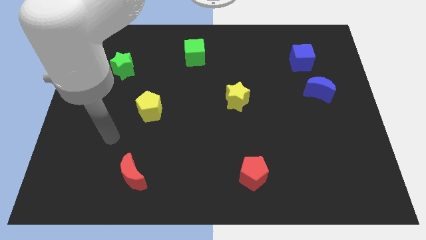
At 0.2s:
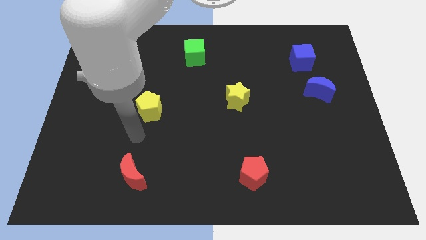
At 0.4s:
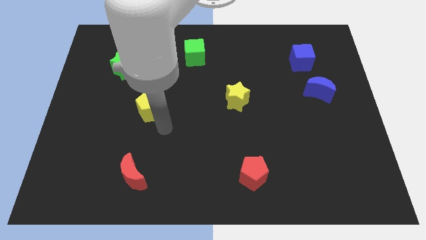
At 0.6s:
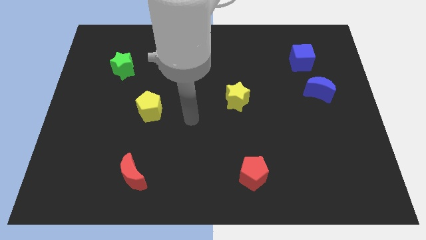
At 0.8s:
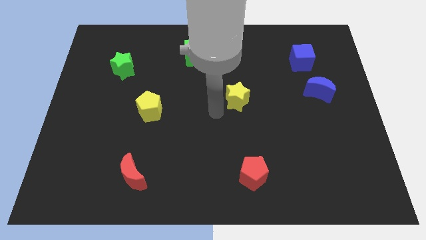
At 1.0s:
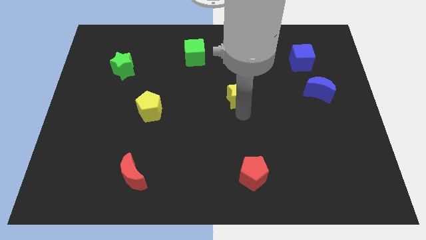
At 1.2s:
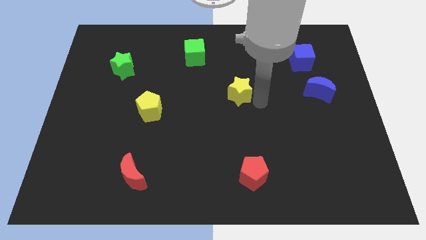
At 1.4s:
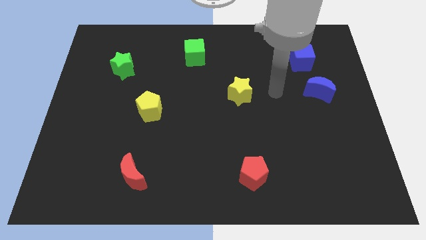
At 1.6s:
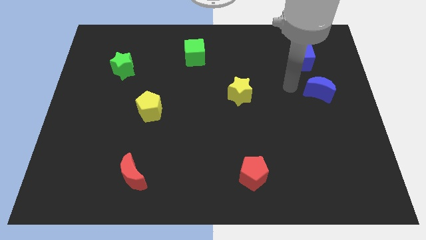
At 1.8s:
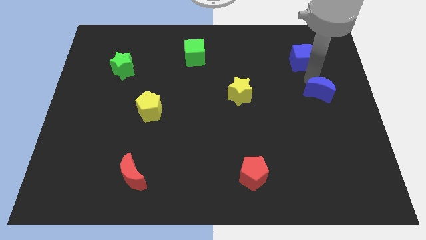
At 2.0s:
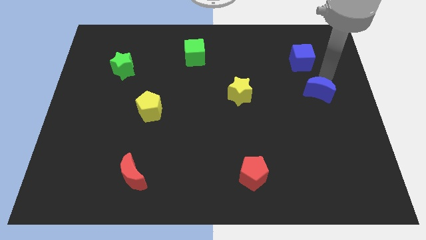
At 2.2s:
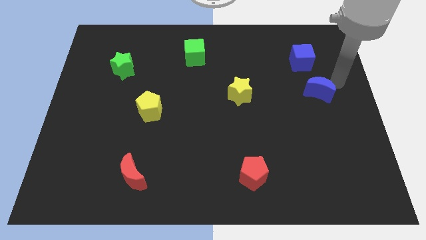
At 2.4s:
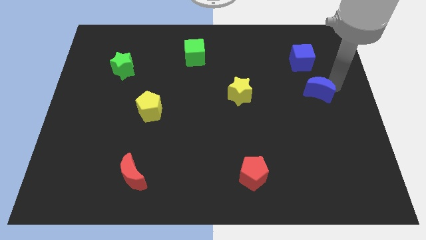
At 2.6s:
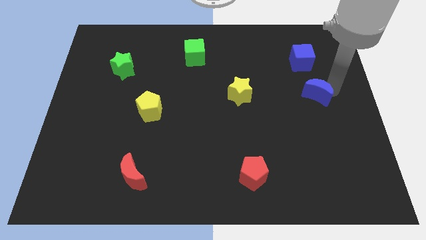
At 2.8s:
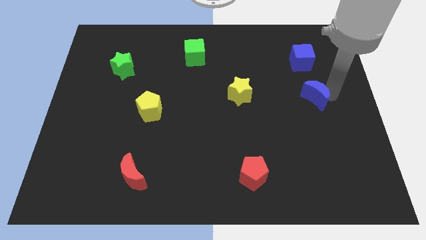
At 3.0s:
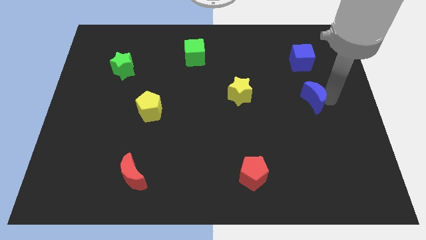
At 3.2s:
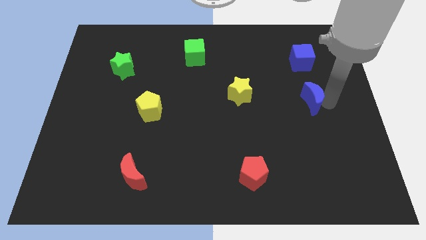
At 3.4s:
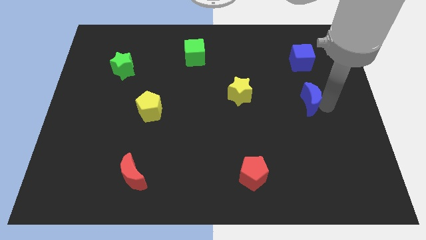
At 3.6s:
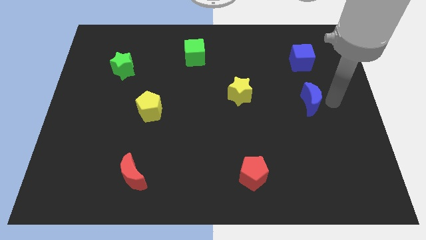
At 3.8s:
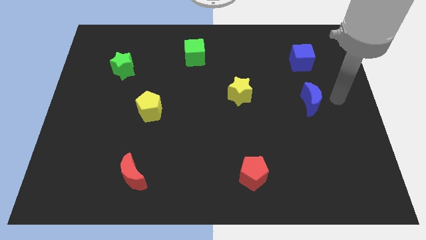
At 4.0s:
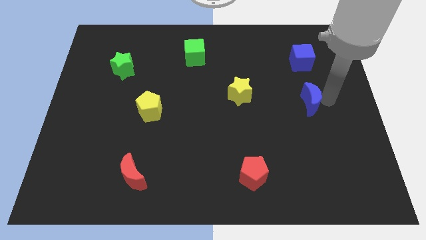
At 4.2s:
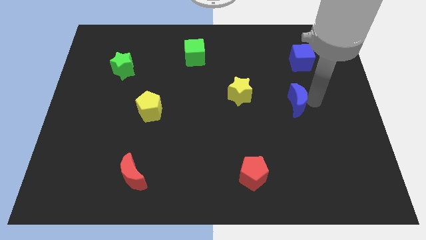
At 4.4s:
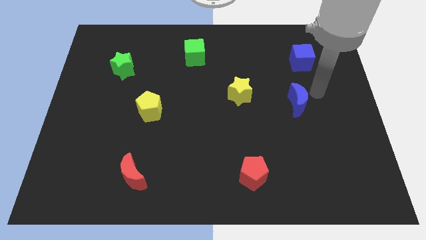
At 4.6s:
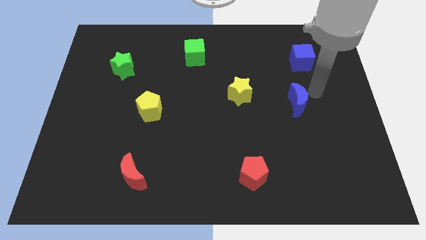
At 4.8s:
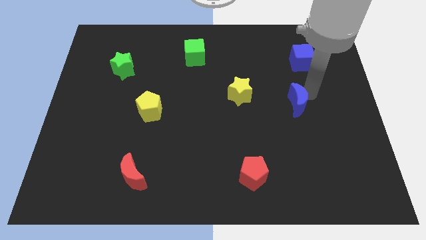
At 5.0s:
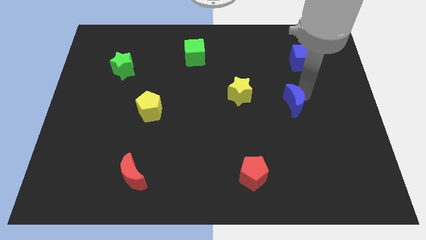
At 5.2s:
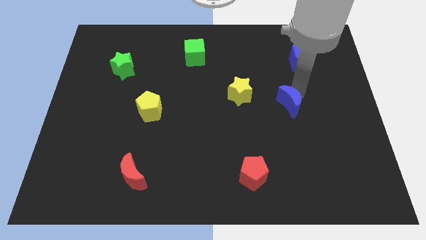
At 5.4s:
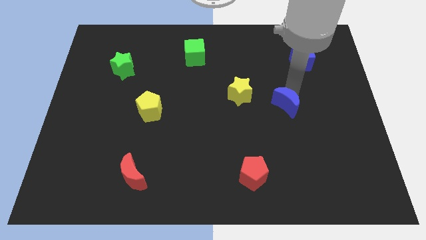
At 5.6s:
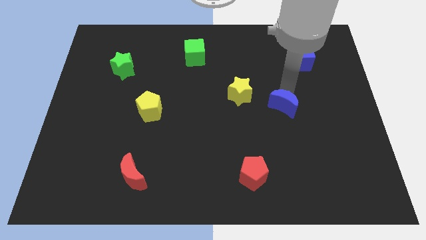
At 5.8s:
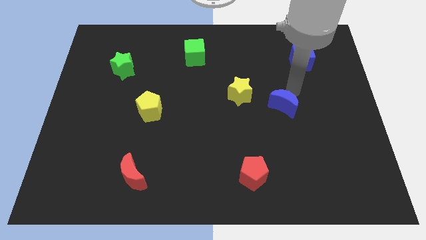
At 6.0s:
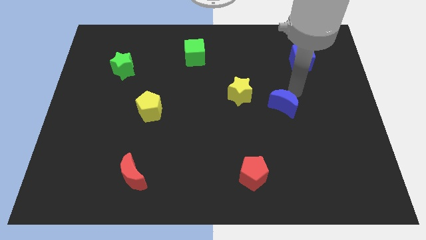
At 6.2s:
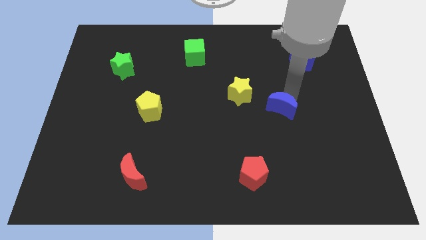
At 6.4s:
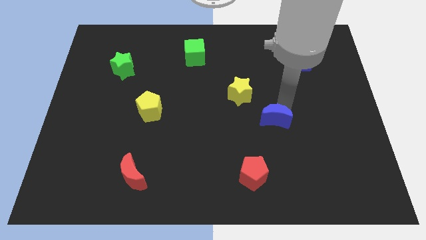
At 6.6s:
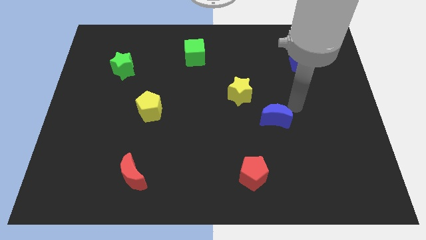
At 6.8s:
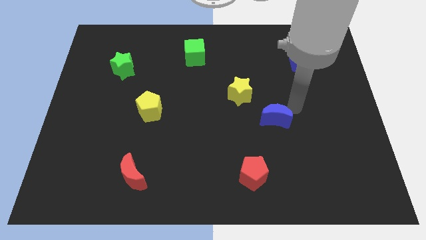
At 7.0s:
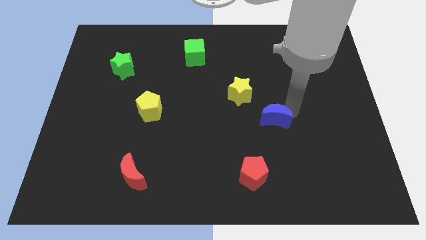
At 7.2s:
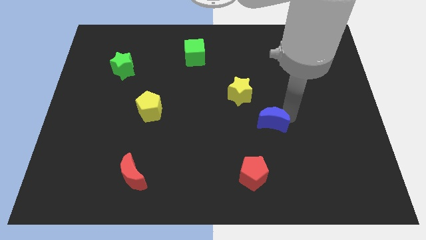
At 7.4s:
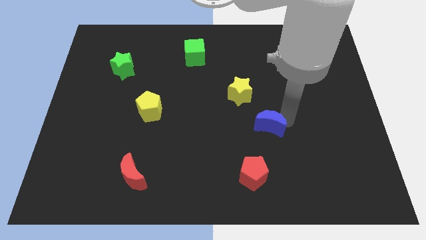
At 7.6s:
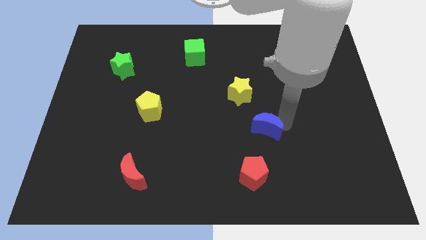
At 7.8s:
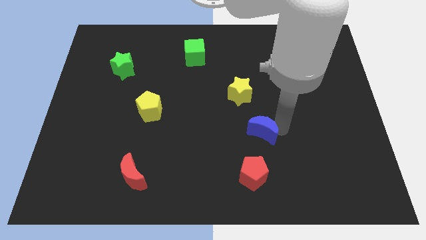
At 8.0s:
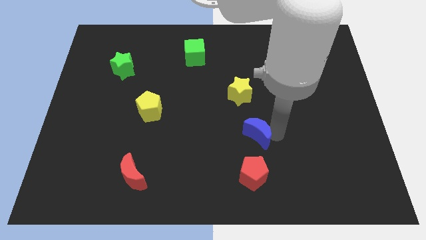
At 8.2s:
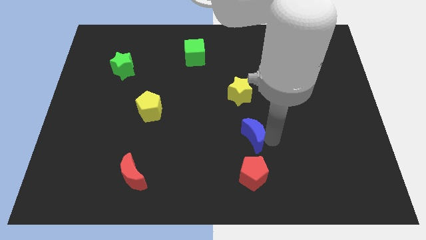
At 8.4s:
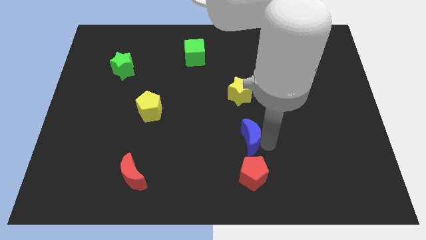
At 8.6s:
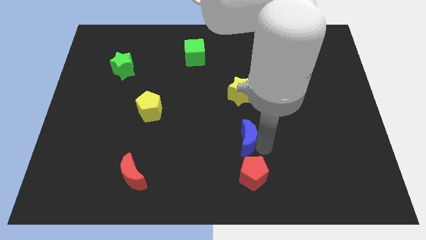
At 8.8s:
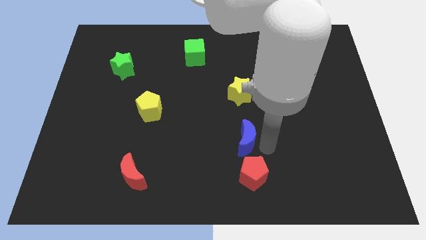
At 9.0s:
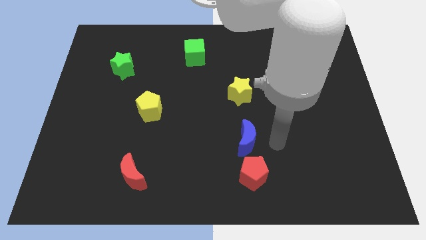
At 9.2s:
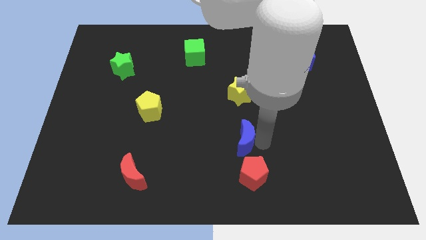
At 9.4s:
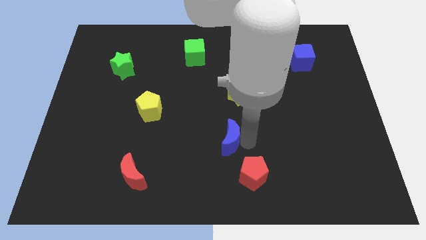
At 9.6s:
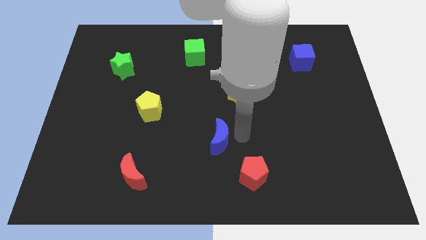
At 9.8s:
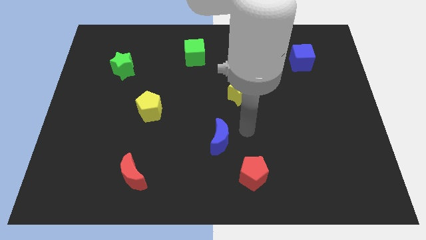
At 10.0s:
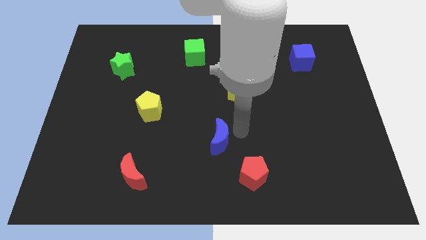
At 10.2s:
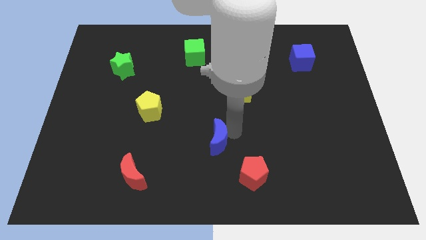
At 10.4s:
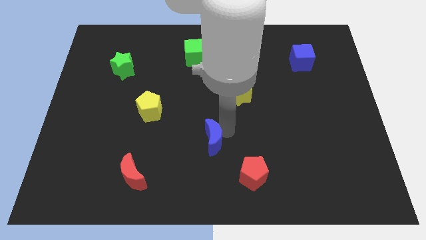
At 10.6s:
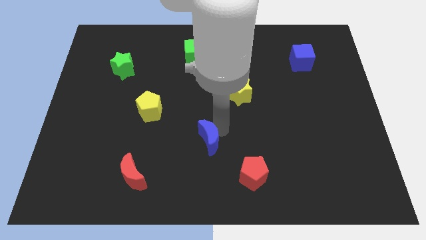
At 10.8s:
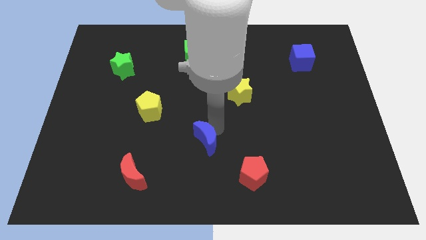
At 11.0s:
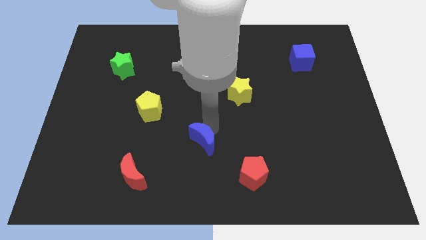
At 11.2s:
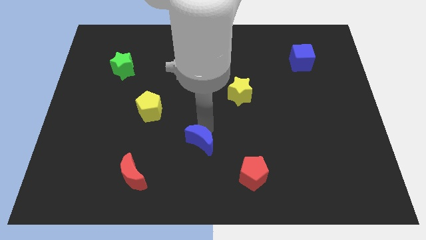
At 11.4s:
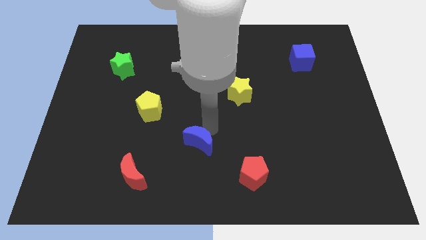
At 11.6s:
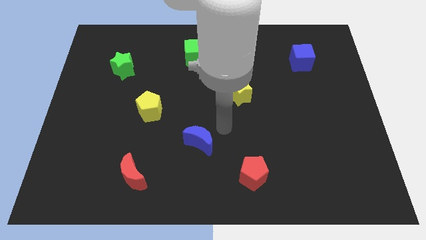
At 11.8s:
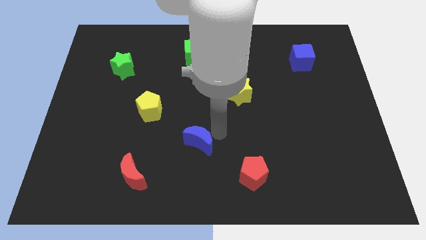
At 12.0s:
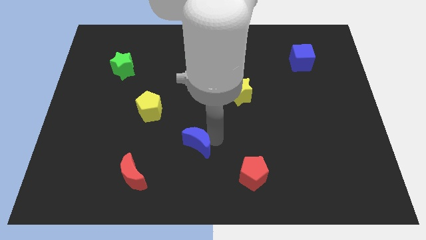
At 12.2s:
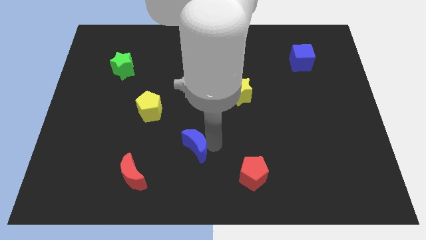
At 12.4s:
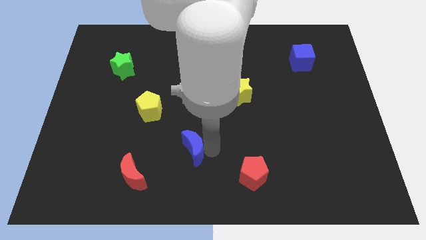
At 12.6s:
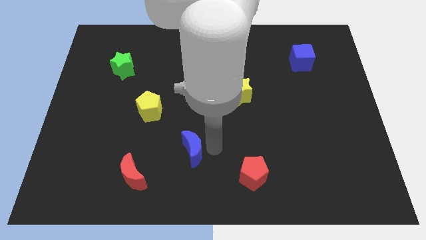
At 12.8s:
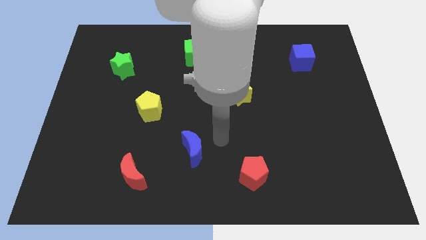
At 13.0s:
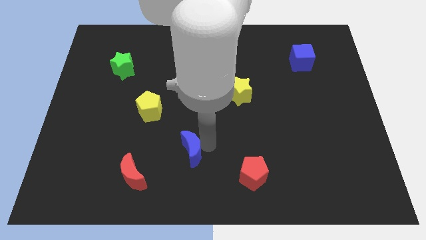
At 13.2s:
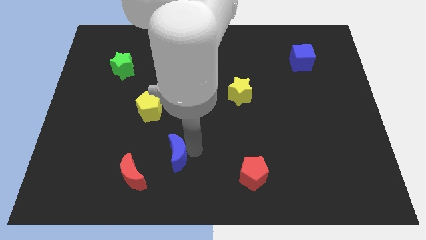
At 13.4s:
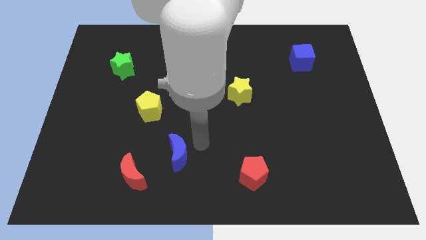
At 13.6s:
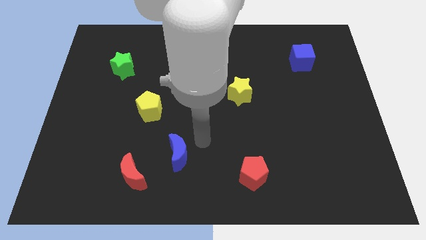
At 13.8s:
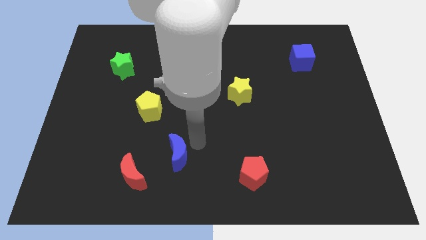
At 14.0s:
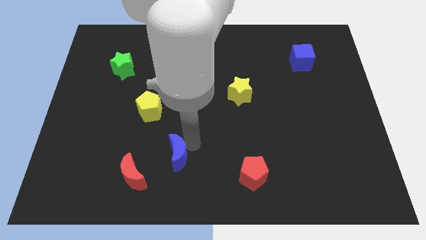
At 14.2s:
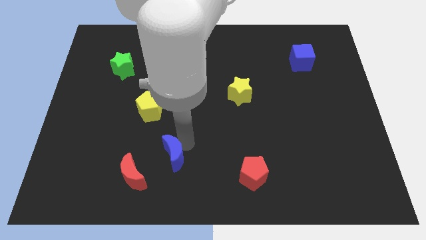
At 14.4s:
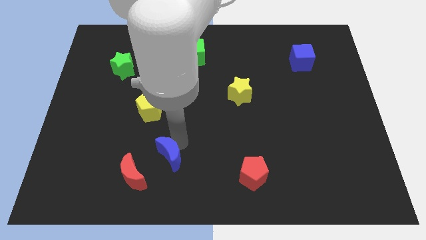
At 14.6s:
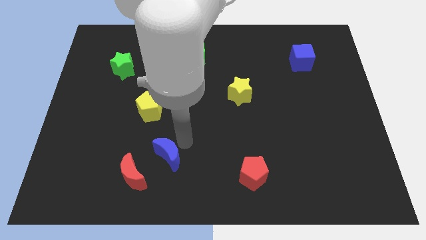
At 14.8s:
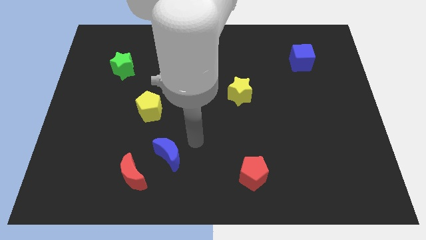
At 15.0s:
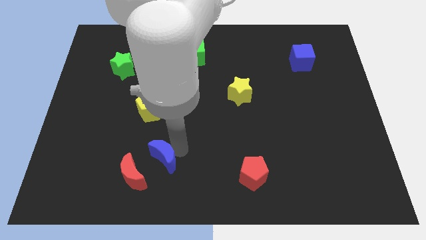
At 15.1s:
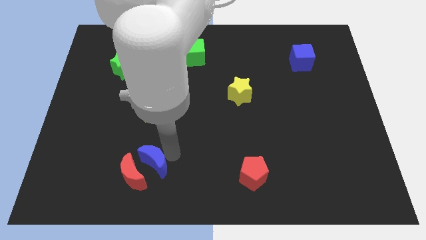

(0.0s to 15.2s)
push the blue moon to the red moon

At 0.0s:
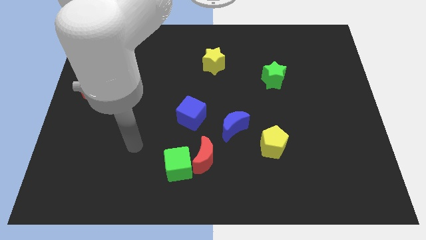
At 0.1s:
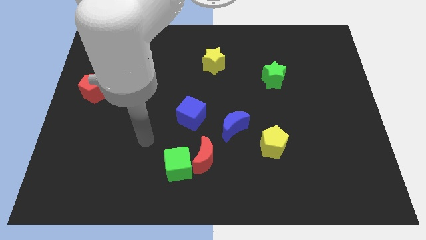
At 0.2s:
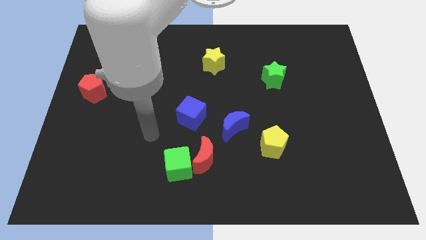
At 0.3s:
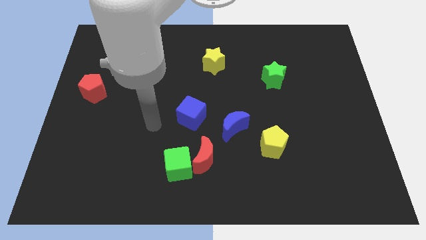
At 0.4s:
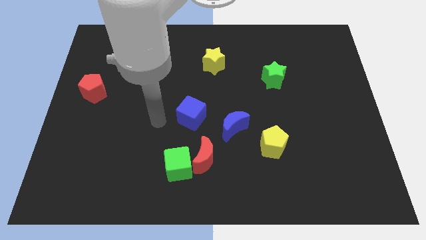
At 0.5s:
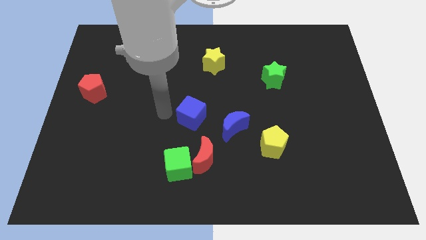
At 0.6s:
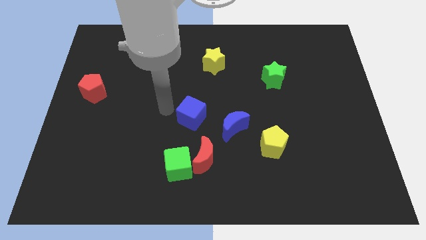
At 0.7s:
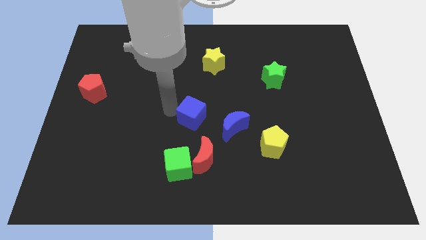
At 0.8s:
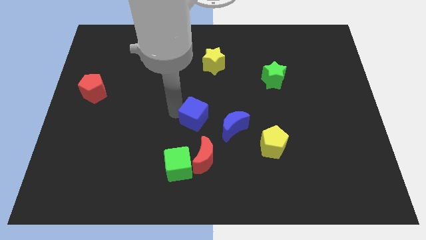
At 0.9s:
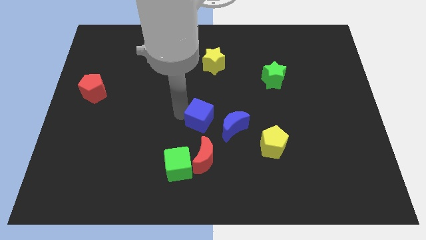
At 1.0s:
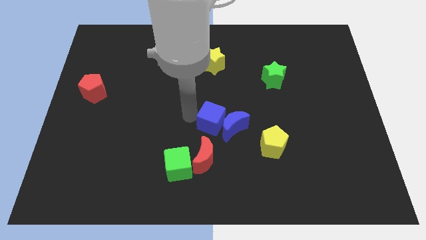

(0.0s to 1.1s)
move the blue cube next to the blue moon
